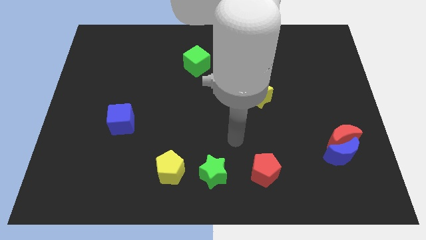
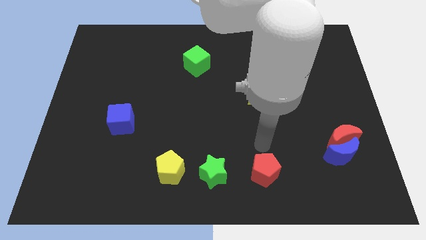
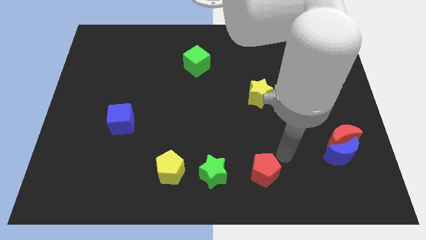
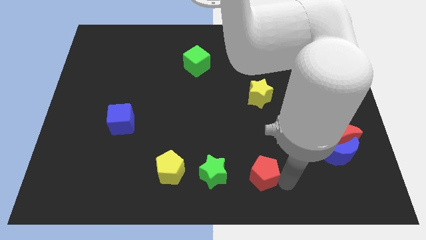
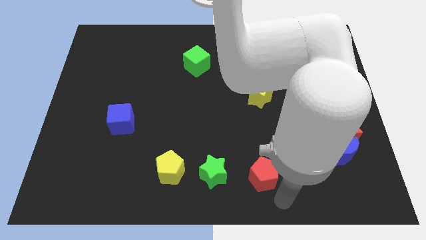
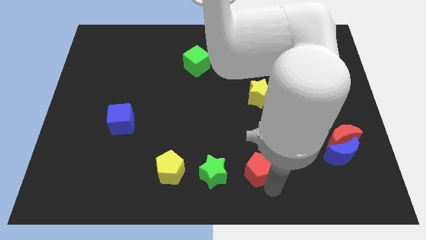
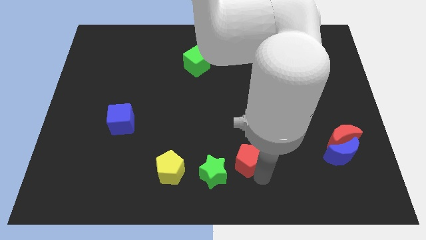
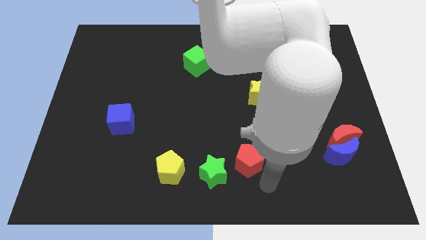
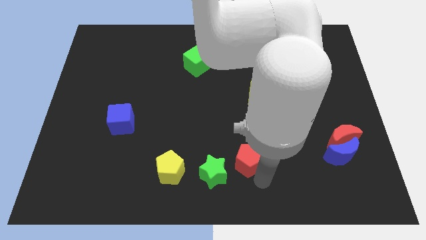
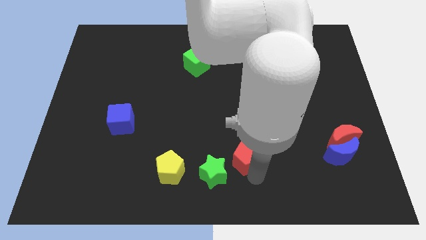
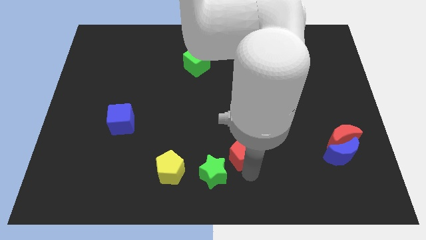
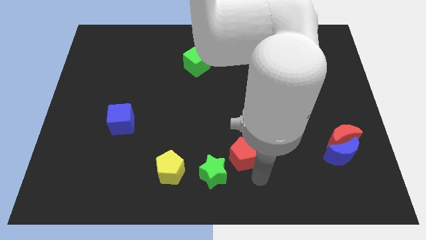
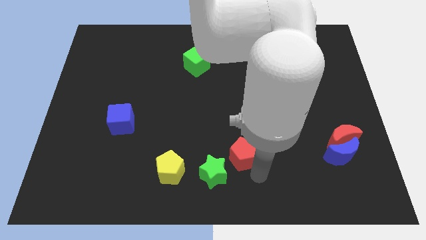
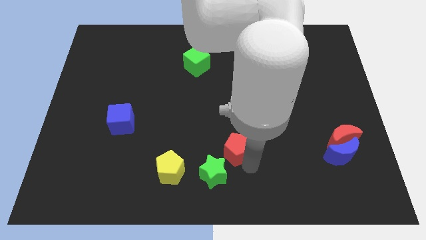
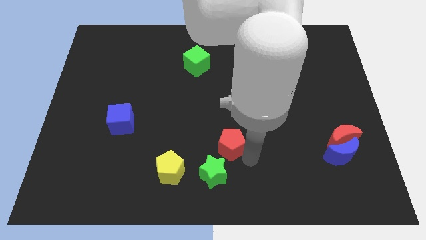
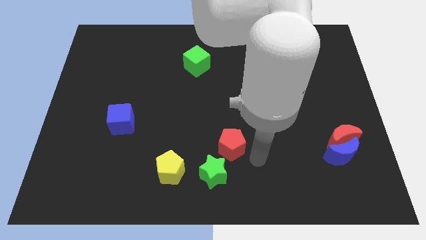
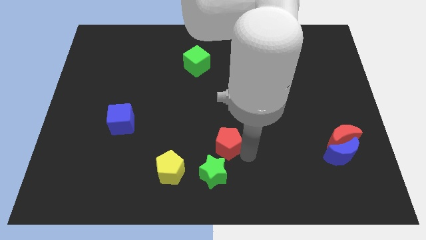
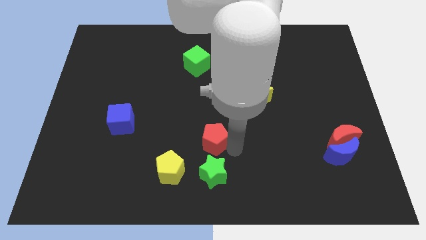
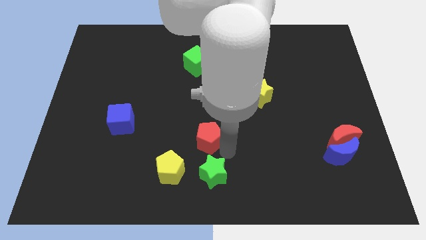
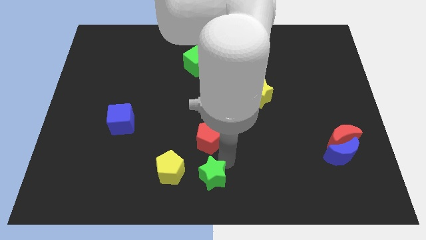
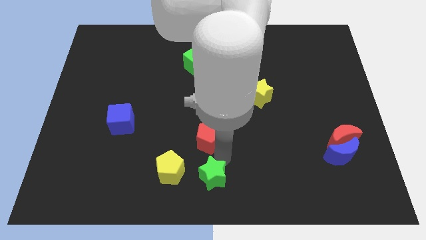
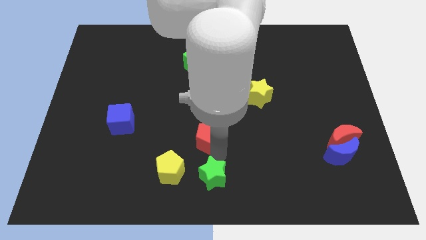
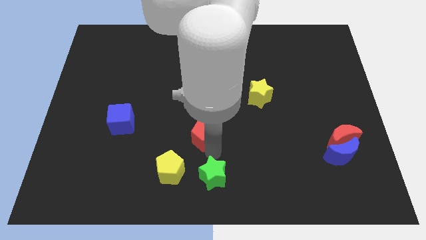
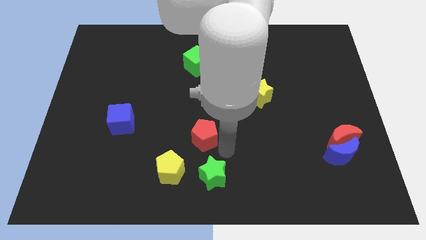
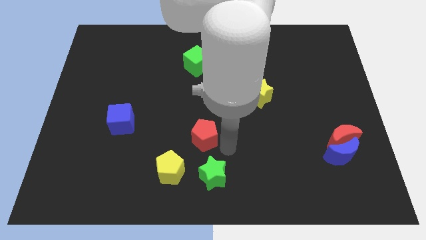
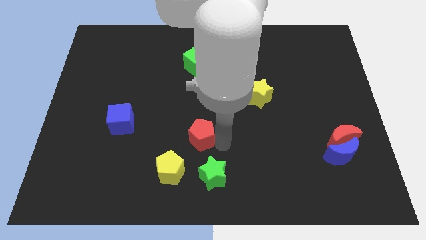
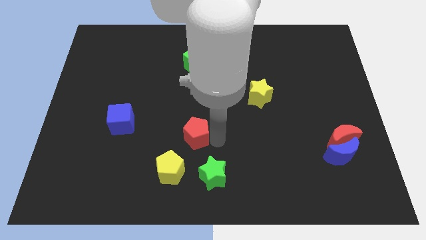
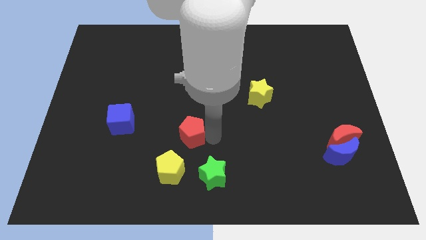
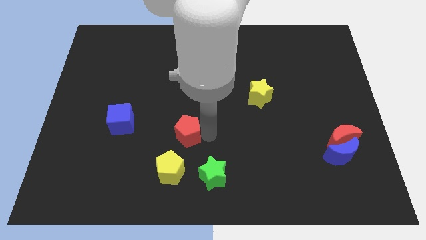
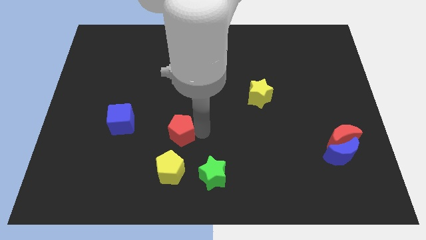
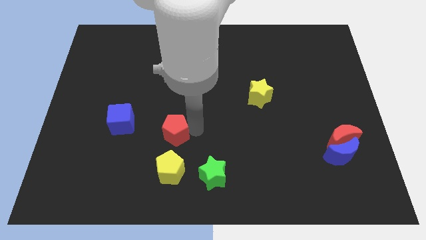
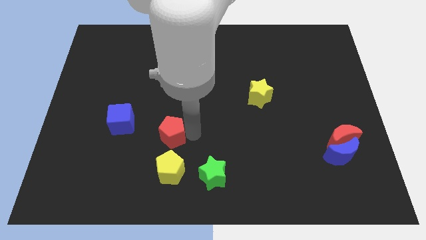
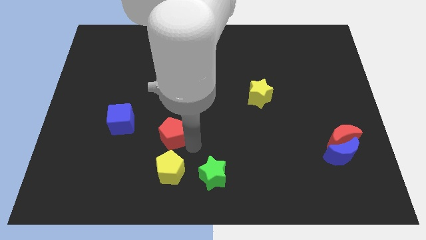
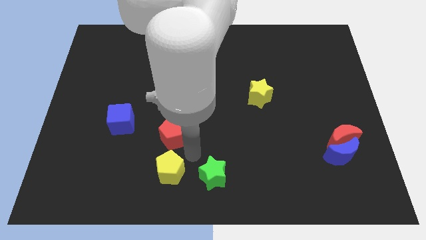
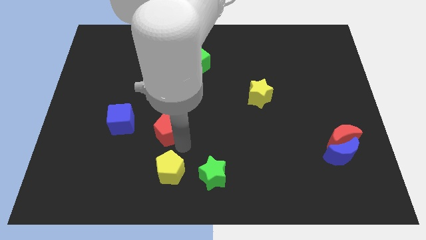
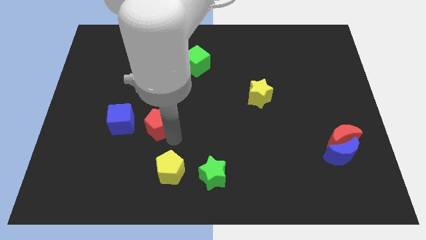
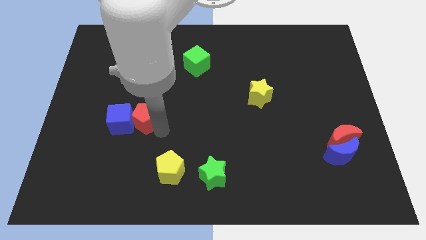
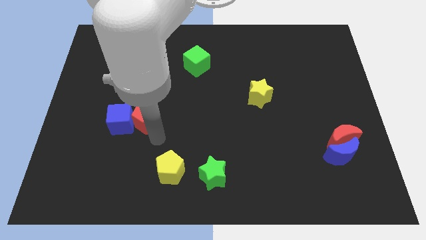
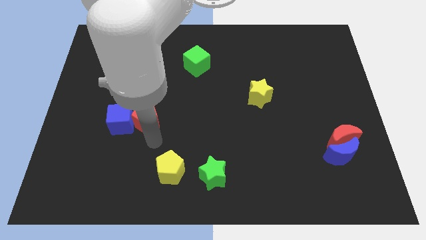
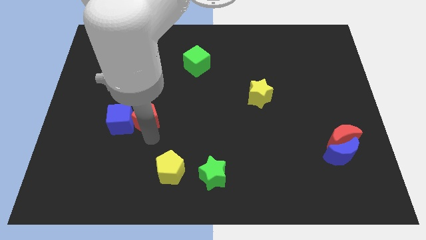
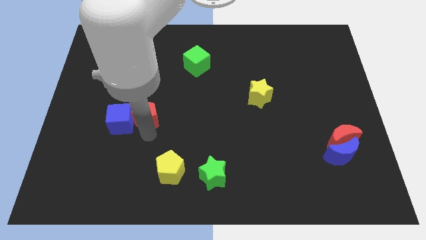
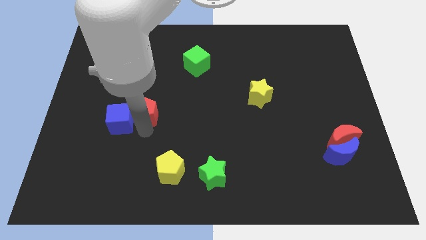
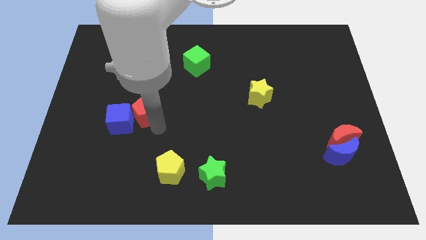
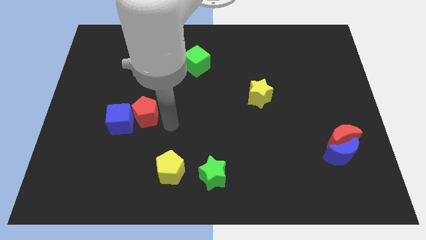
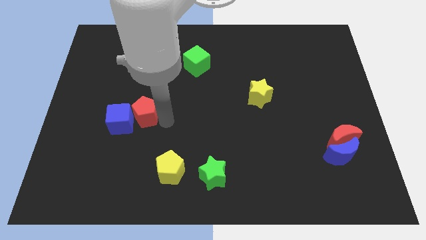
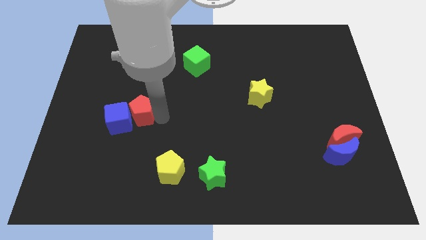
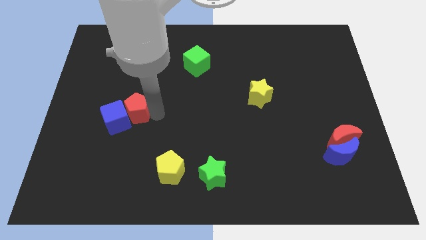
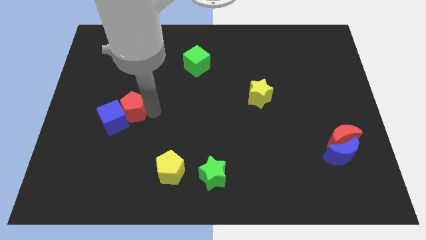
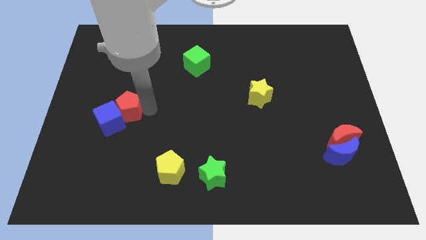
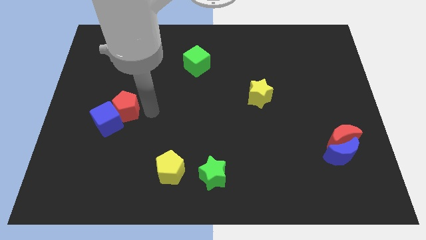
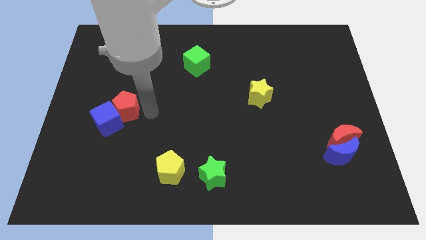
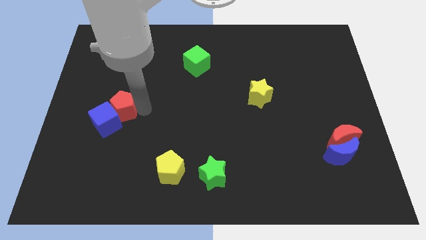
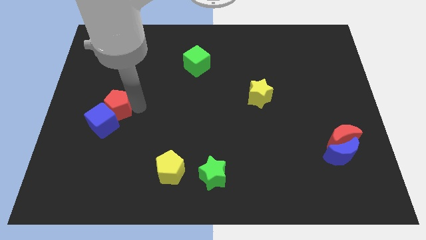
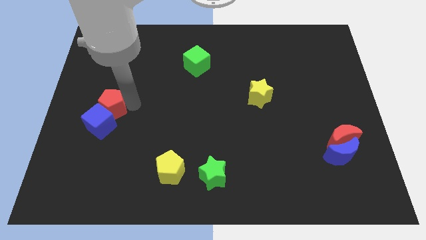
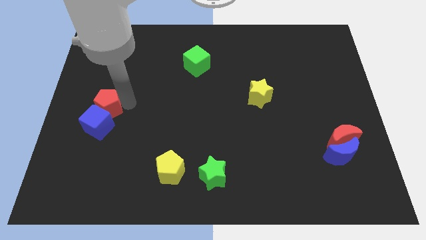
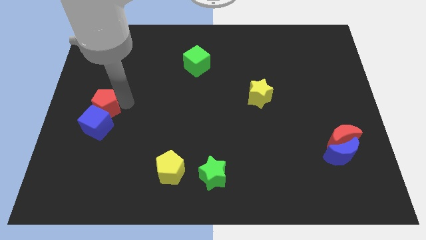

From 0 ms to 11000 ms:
put the red pentagon to the center left
